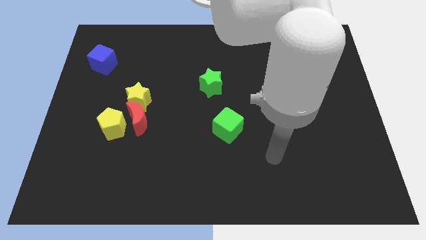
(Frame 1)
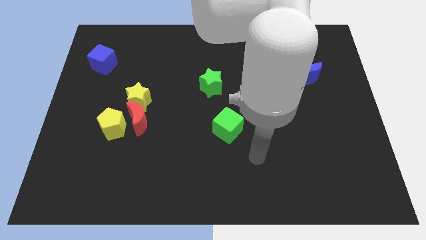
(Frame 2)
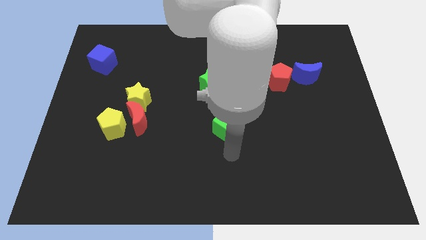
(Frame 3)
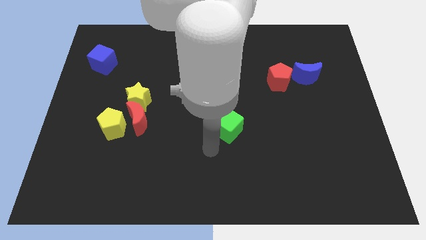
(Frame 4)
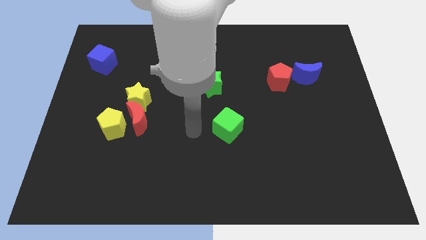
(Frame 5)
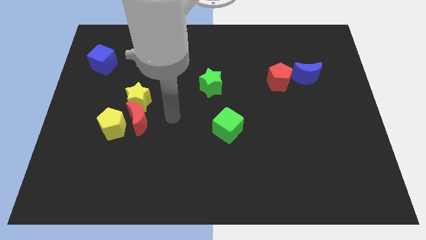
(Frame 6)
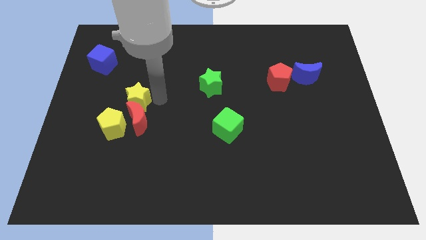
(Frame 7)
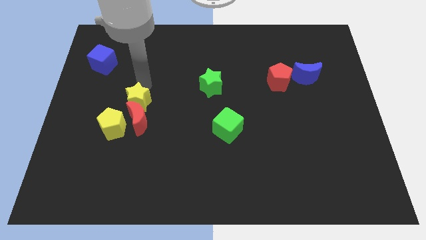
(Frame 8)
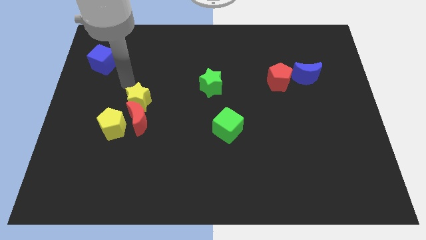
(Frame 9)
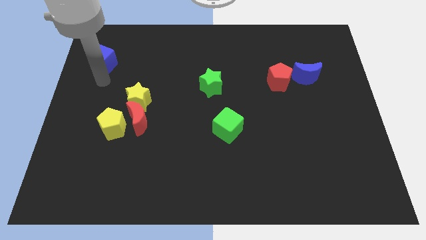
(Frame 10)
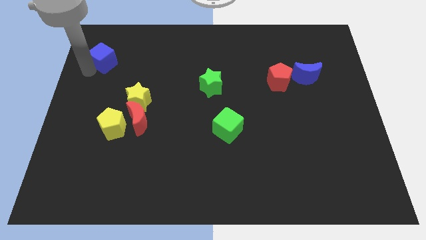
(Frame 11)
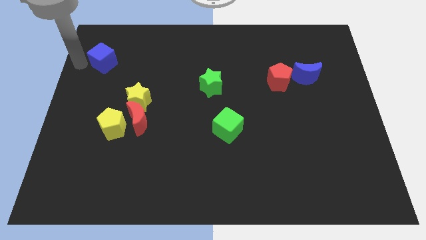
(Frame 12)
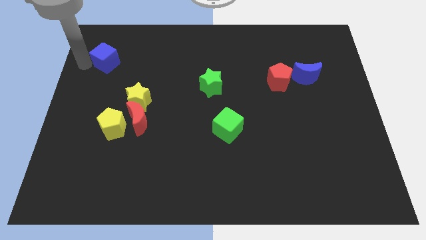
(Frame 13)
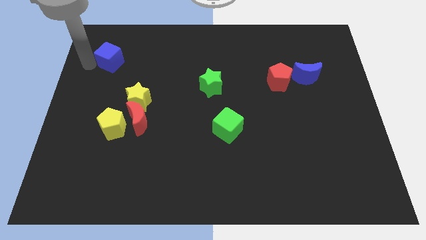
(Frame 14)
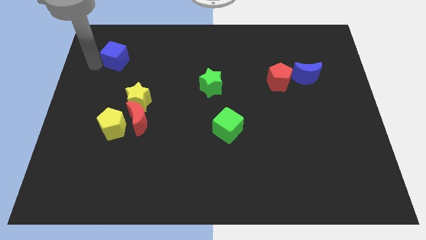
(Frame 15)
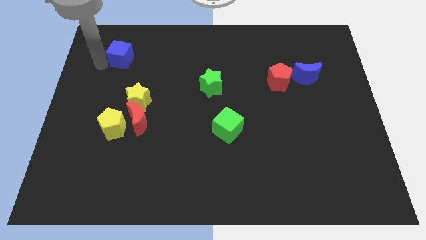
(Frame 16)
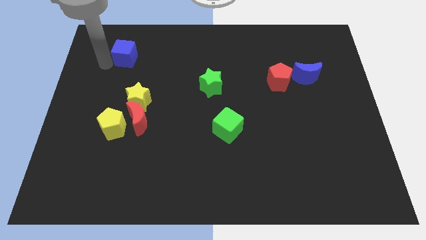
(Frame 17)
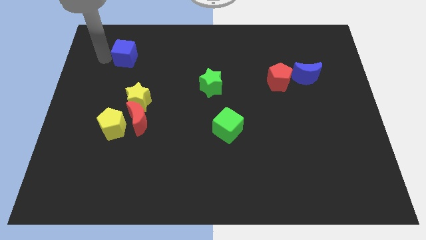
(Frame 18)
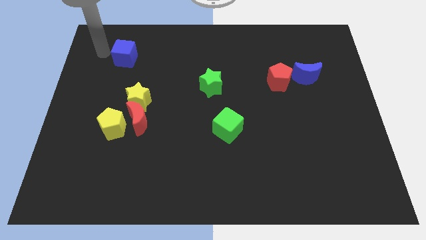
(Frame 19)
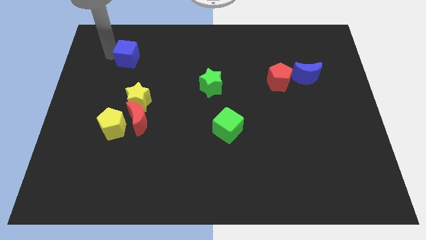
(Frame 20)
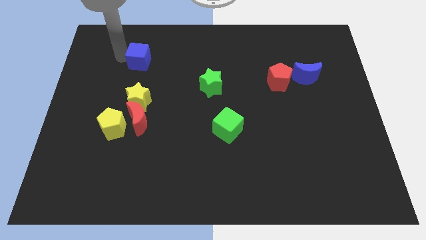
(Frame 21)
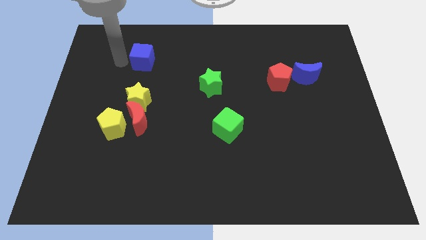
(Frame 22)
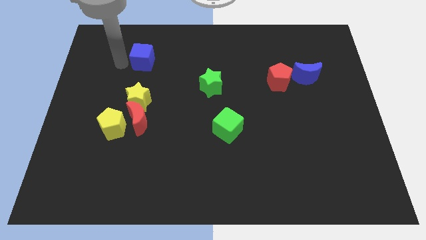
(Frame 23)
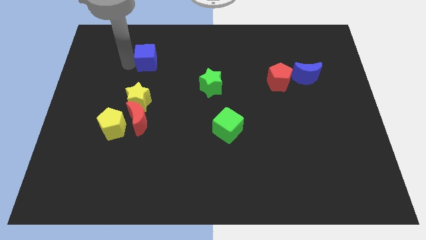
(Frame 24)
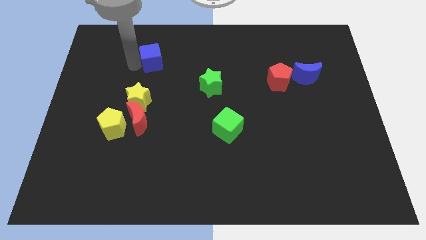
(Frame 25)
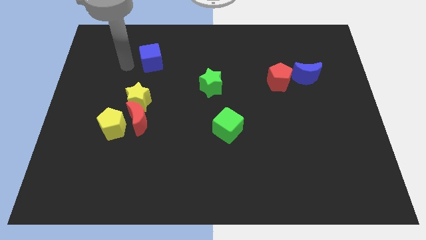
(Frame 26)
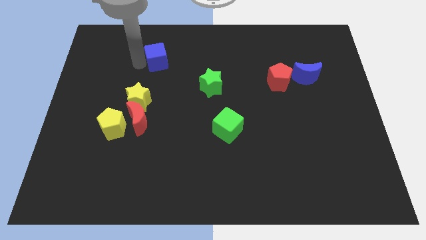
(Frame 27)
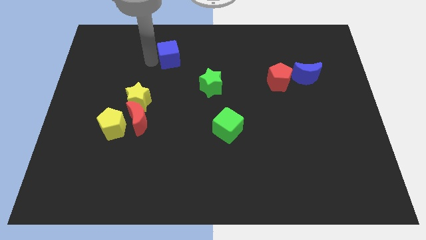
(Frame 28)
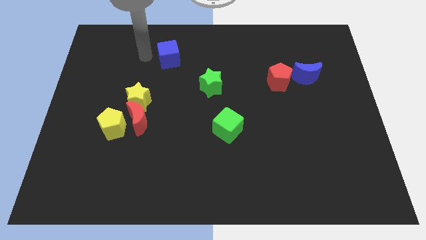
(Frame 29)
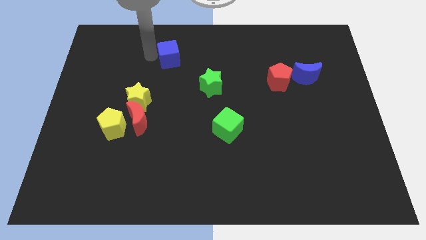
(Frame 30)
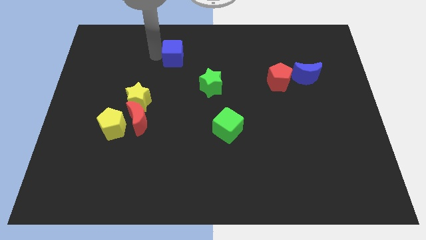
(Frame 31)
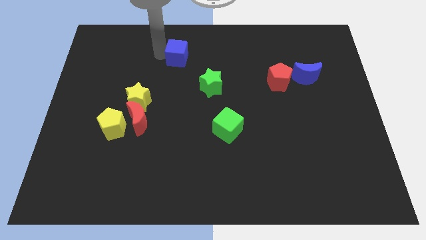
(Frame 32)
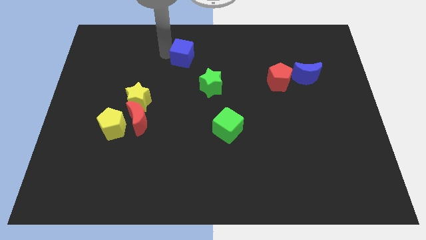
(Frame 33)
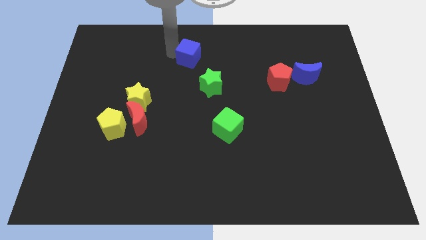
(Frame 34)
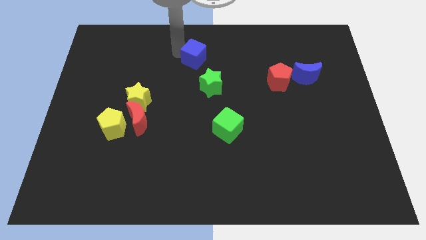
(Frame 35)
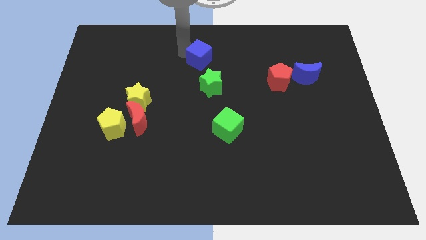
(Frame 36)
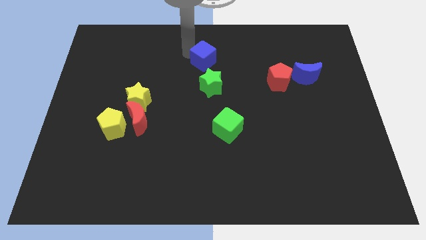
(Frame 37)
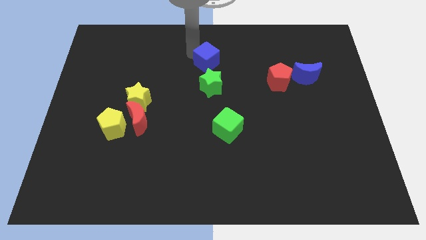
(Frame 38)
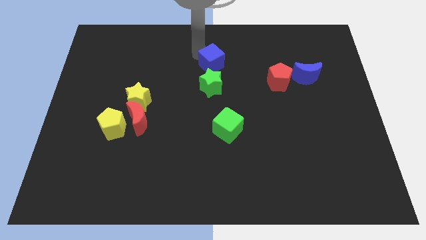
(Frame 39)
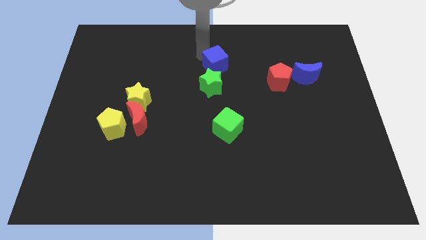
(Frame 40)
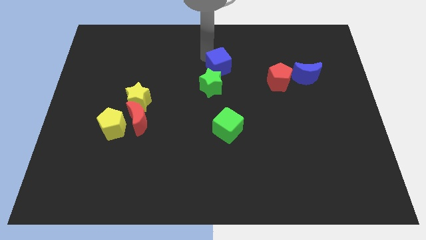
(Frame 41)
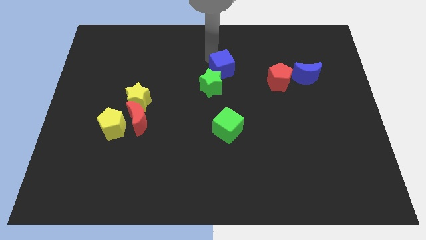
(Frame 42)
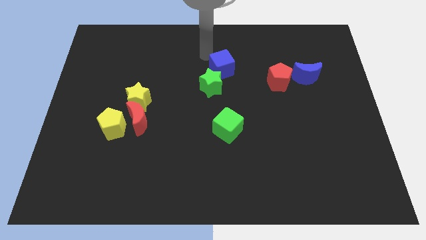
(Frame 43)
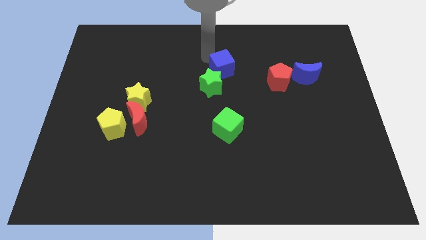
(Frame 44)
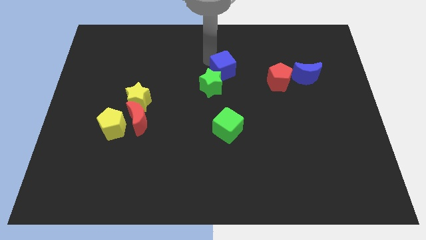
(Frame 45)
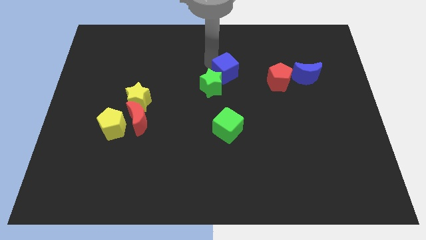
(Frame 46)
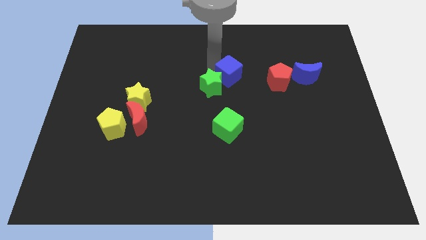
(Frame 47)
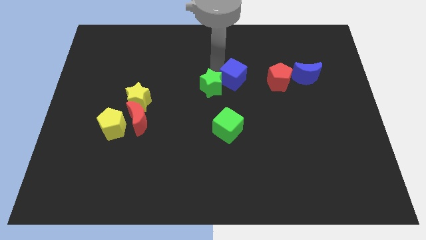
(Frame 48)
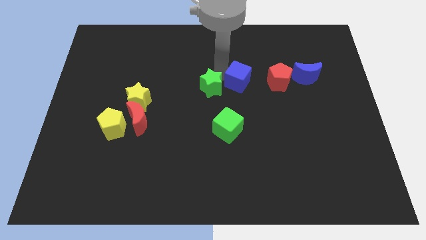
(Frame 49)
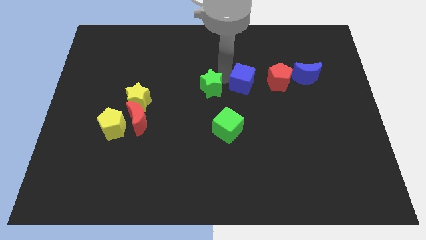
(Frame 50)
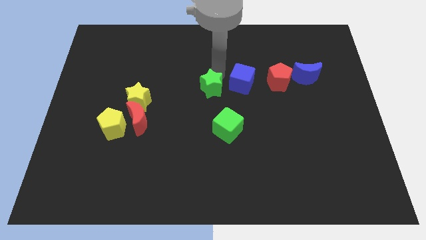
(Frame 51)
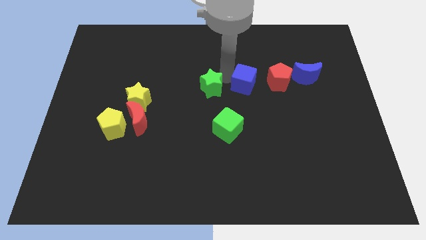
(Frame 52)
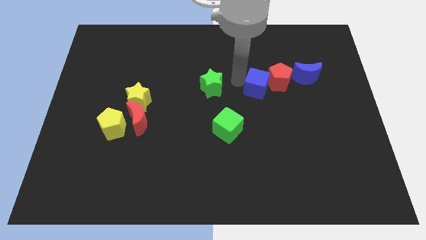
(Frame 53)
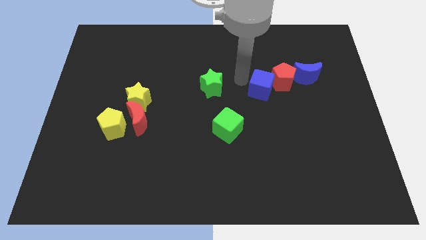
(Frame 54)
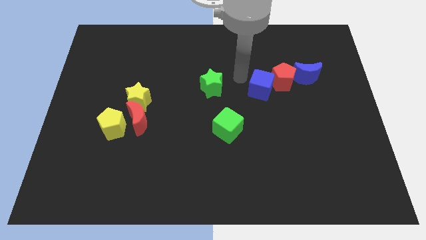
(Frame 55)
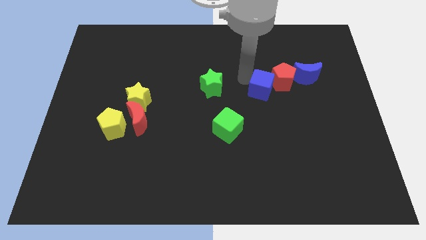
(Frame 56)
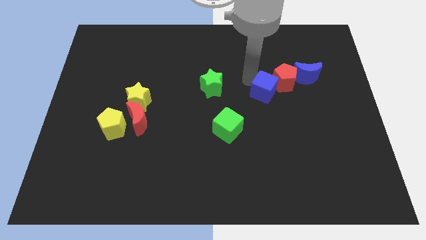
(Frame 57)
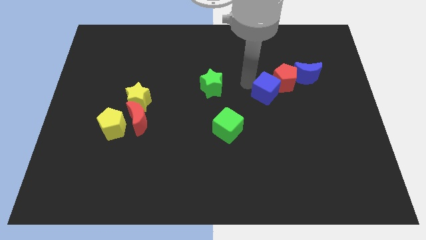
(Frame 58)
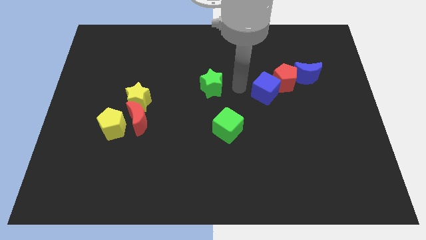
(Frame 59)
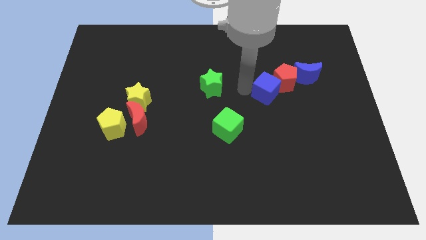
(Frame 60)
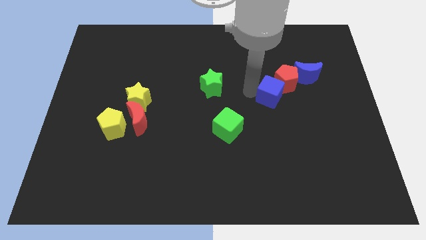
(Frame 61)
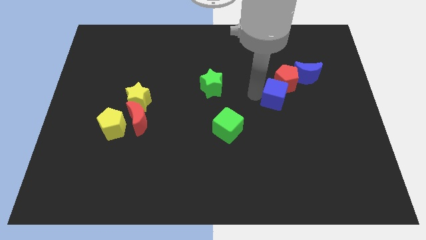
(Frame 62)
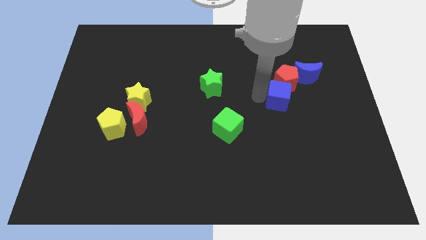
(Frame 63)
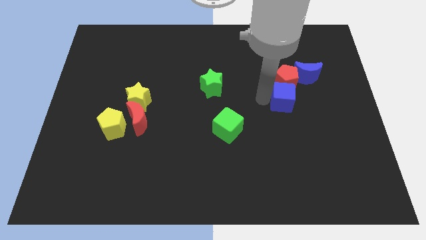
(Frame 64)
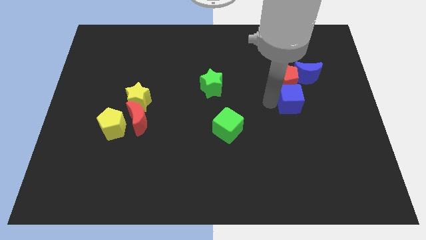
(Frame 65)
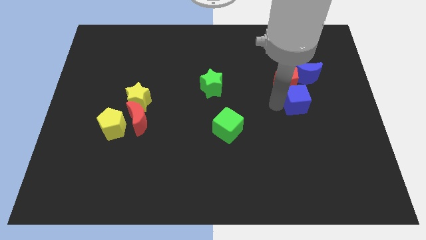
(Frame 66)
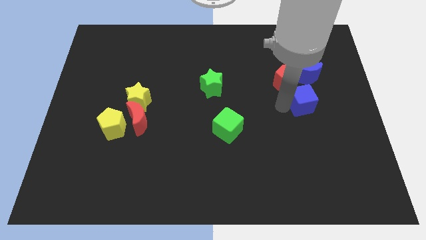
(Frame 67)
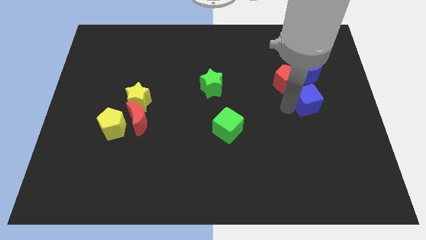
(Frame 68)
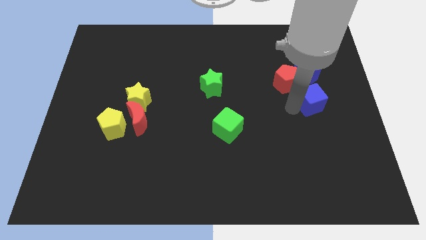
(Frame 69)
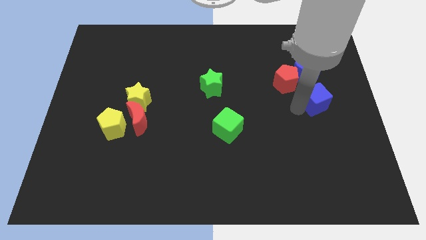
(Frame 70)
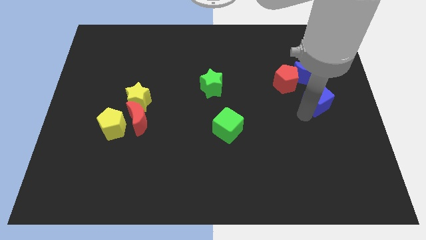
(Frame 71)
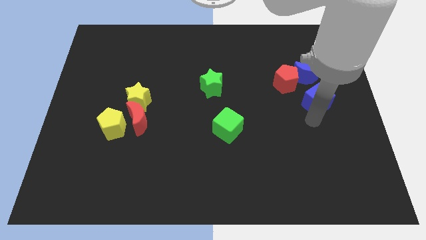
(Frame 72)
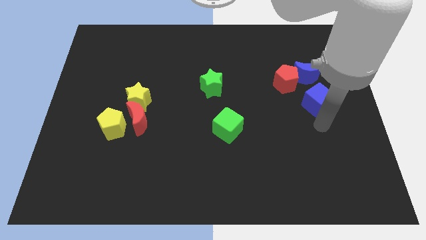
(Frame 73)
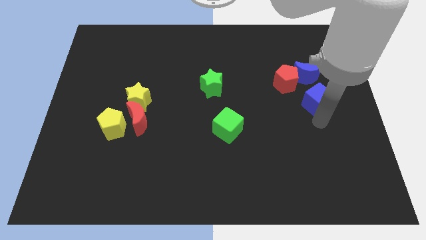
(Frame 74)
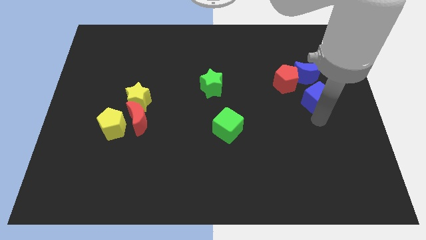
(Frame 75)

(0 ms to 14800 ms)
slide the blue cube to the bottom right of the blue moon
